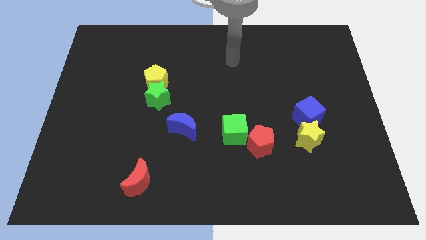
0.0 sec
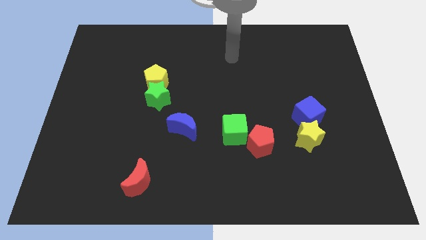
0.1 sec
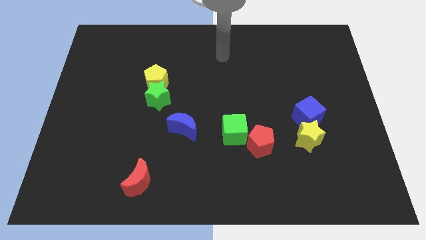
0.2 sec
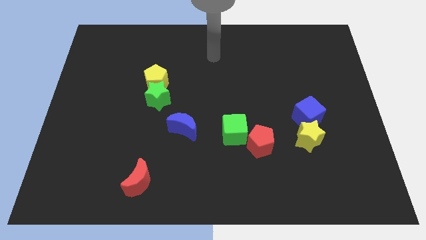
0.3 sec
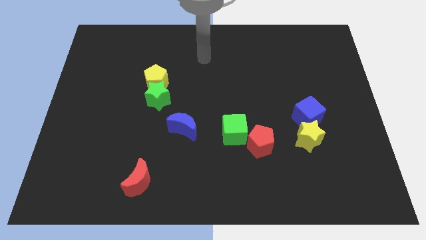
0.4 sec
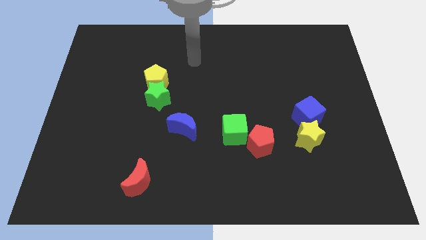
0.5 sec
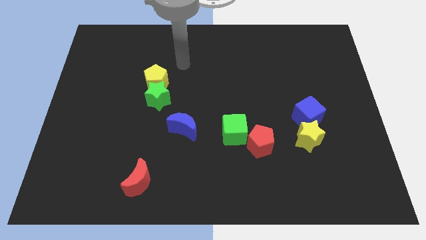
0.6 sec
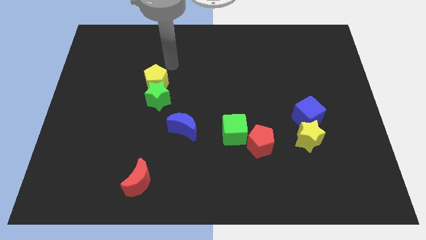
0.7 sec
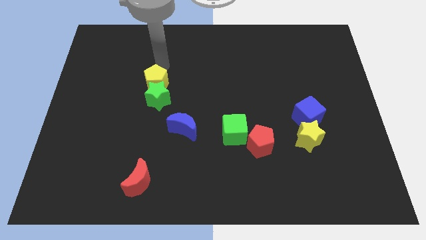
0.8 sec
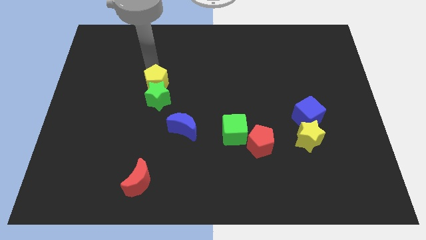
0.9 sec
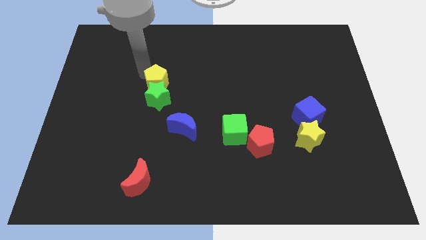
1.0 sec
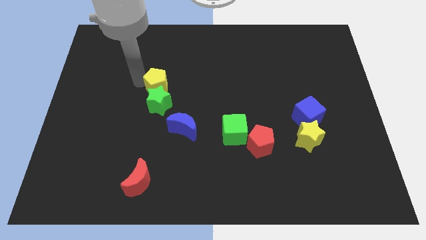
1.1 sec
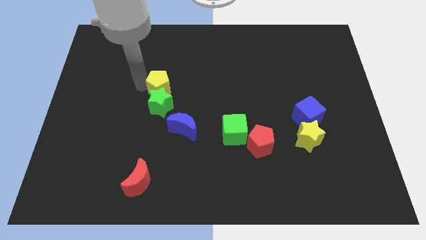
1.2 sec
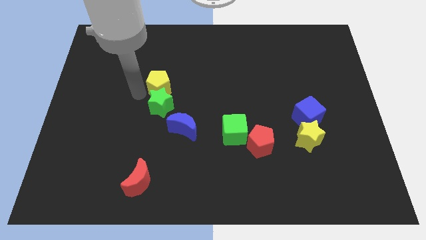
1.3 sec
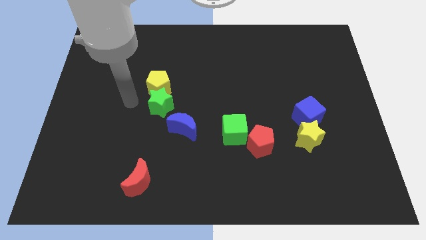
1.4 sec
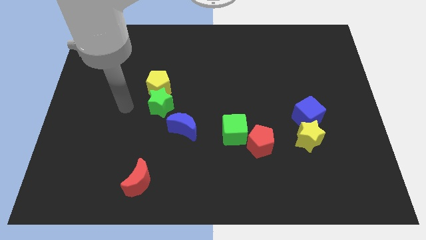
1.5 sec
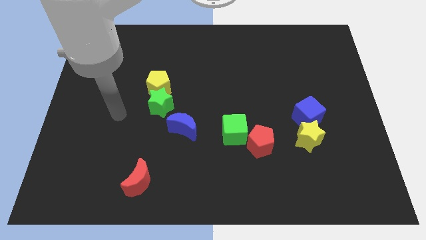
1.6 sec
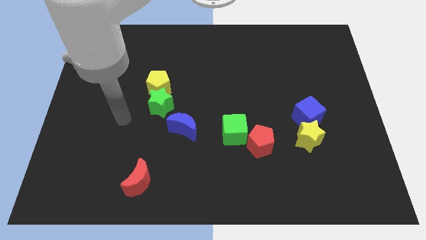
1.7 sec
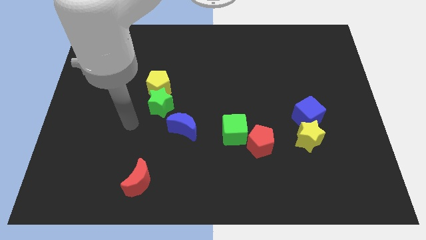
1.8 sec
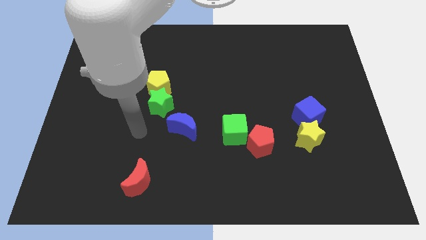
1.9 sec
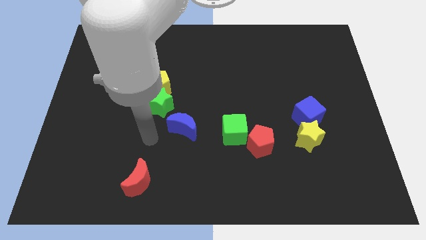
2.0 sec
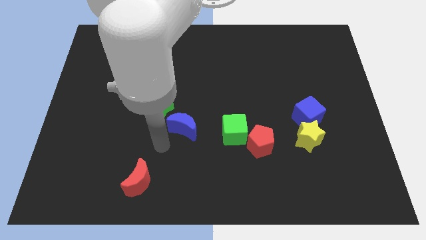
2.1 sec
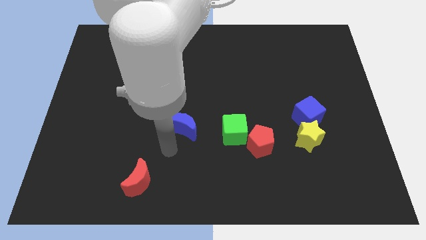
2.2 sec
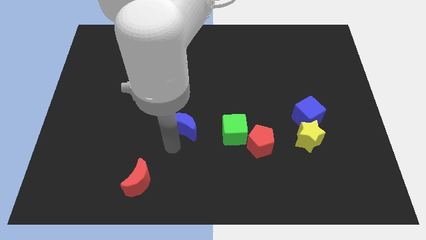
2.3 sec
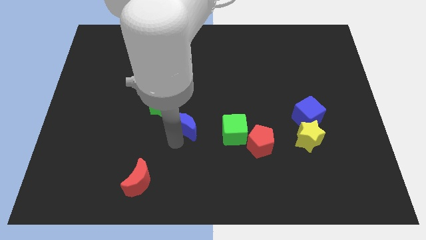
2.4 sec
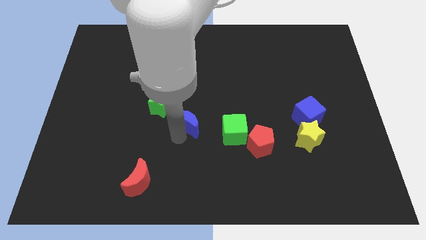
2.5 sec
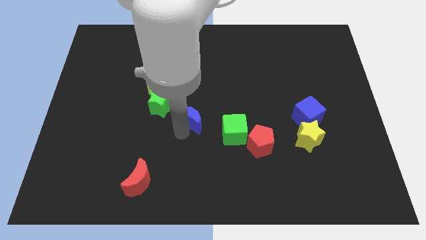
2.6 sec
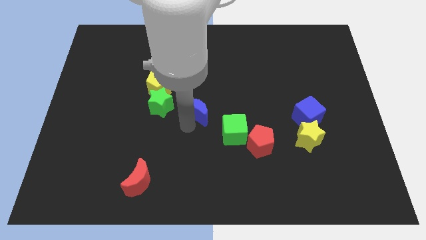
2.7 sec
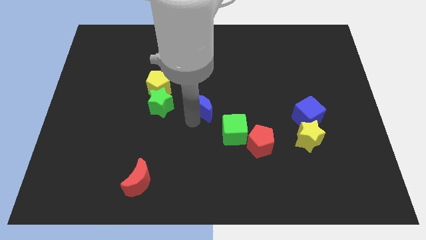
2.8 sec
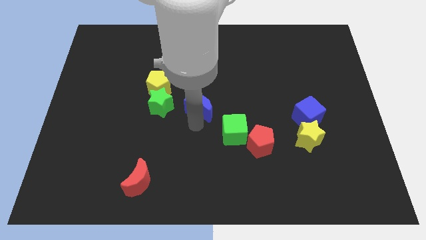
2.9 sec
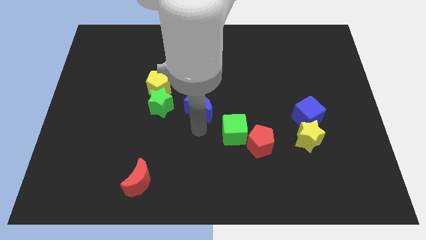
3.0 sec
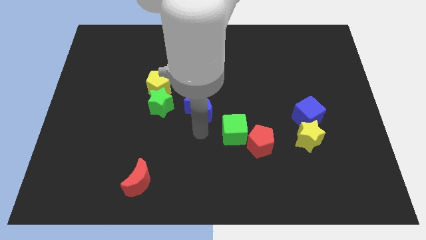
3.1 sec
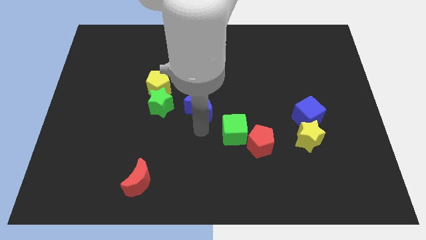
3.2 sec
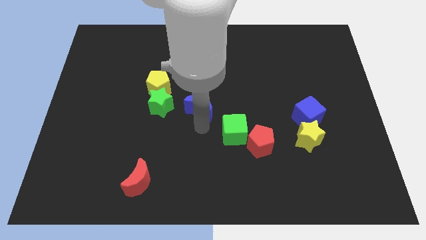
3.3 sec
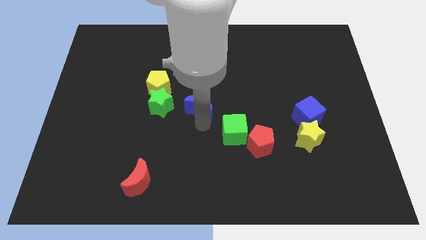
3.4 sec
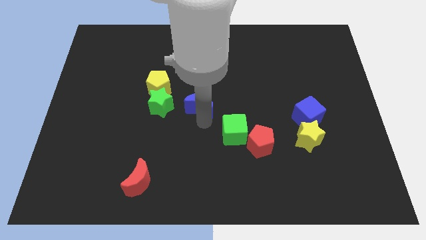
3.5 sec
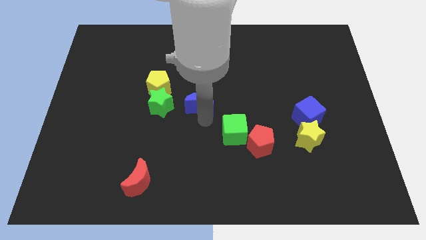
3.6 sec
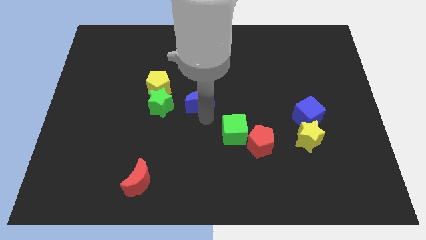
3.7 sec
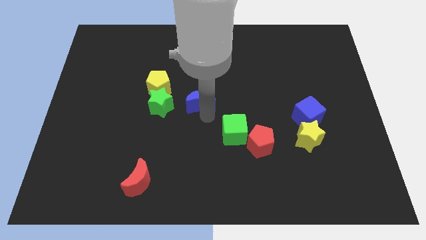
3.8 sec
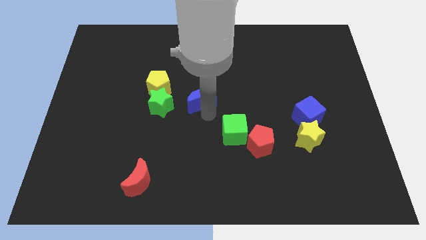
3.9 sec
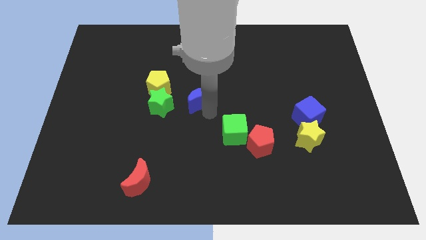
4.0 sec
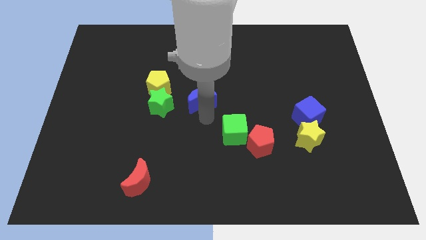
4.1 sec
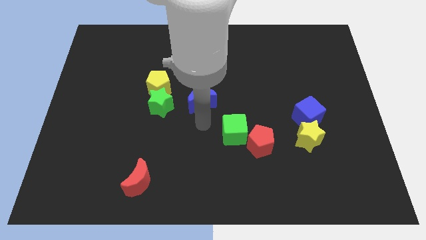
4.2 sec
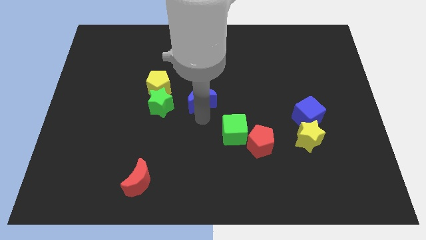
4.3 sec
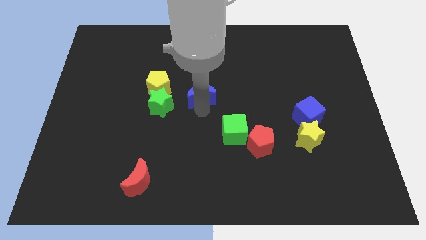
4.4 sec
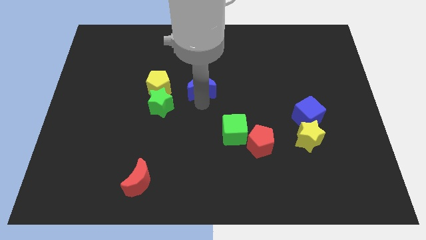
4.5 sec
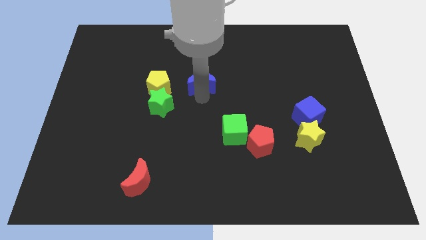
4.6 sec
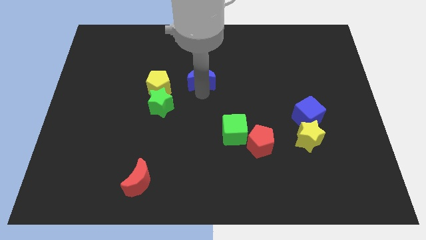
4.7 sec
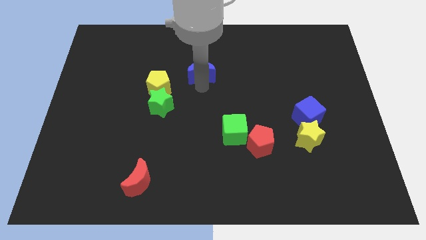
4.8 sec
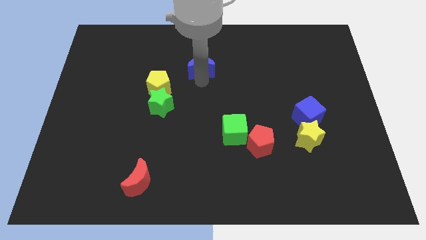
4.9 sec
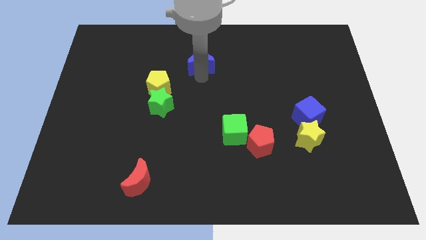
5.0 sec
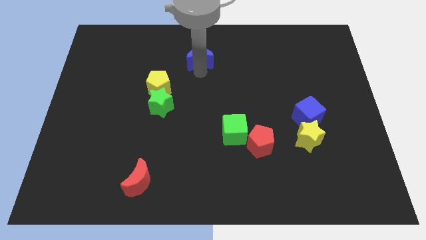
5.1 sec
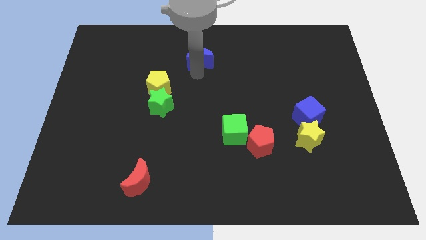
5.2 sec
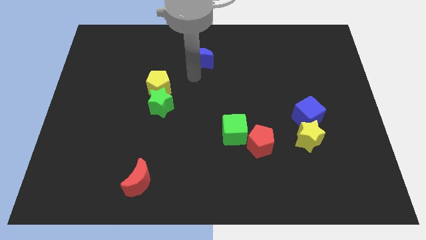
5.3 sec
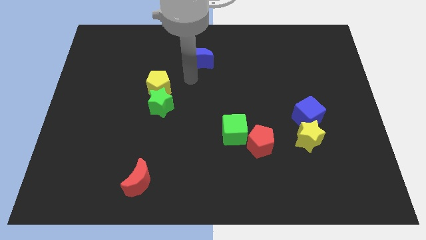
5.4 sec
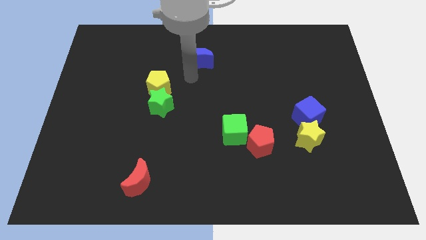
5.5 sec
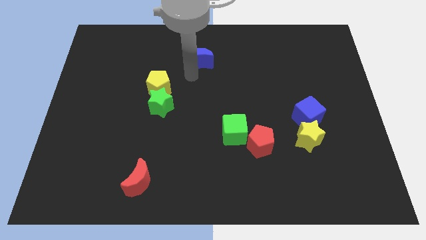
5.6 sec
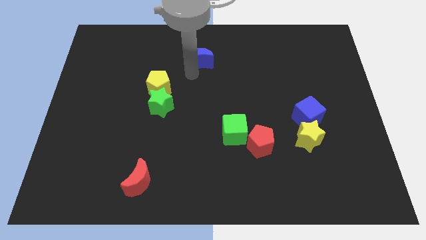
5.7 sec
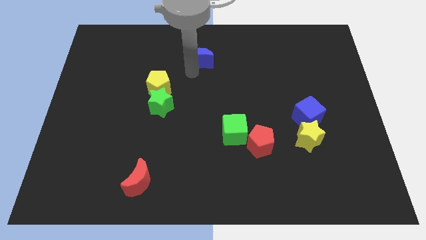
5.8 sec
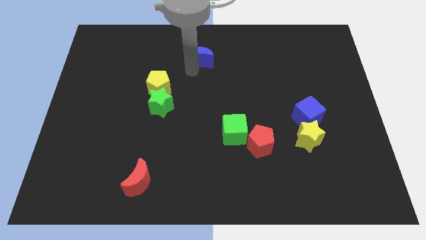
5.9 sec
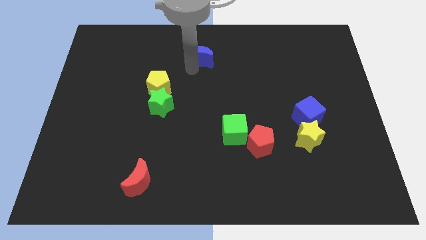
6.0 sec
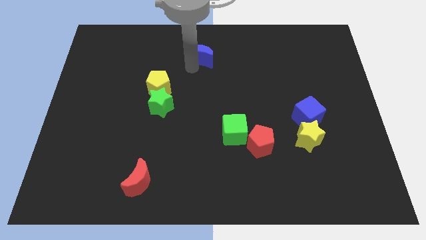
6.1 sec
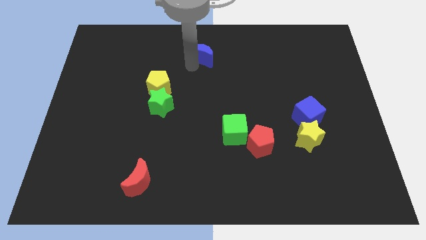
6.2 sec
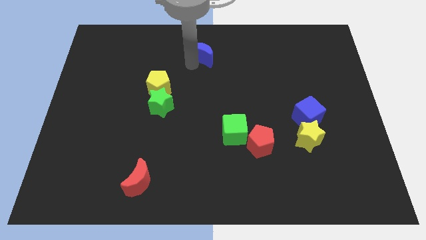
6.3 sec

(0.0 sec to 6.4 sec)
push the blue moon to the towards your base

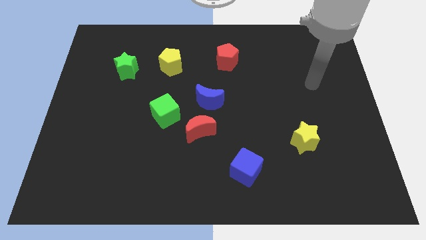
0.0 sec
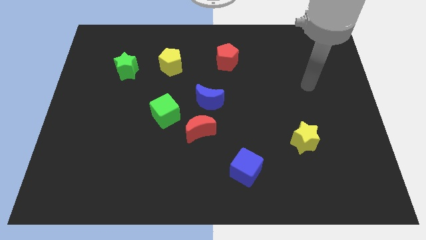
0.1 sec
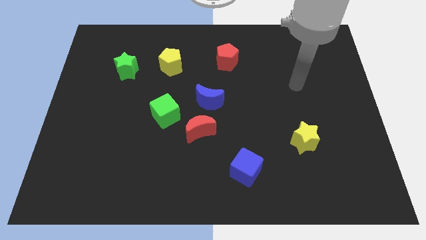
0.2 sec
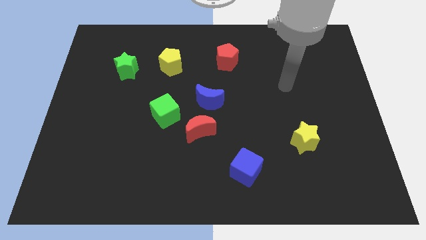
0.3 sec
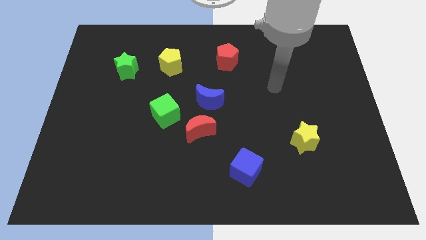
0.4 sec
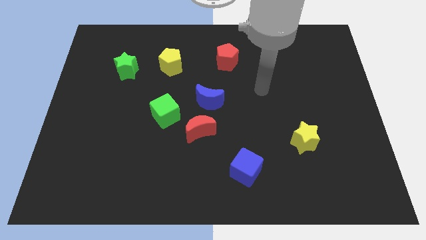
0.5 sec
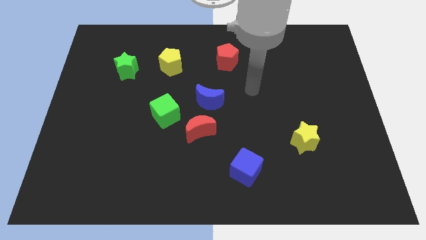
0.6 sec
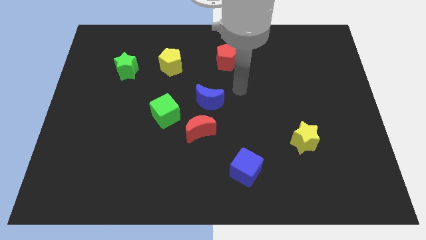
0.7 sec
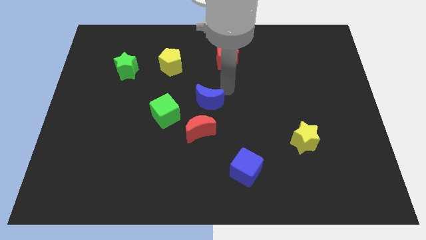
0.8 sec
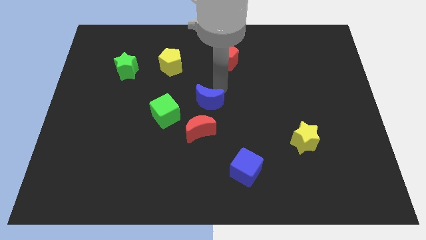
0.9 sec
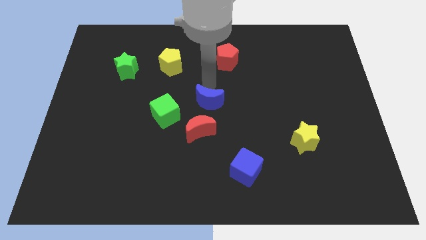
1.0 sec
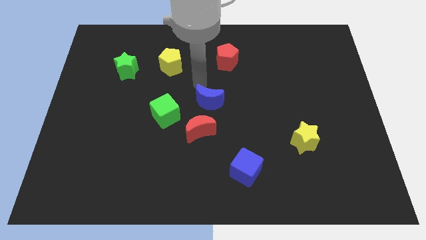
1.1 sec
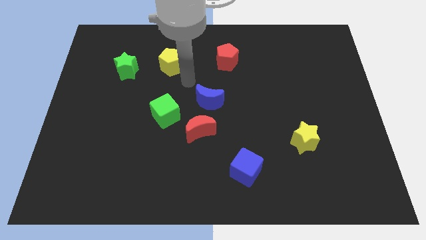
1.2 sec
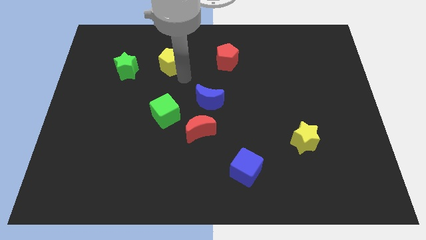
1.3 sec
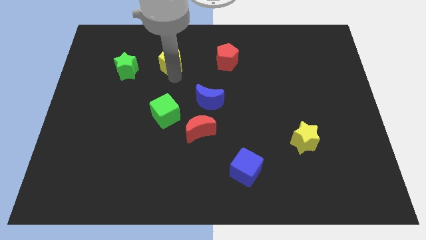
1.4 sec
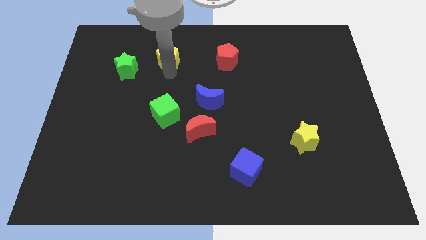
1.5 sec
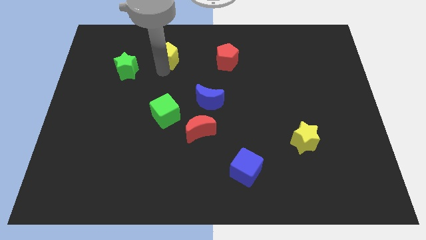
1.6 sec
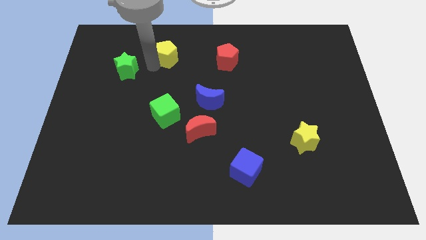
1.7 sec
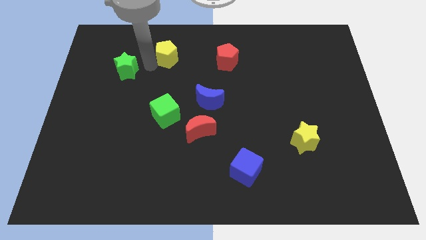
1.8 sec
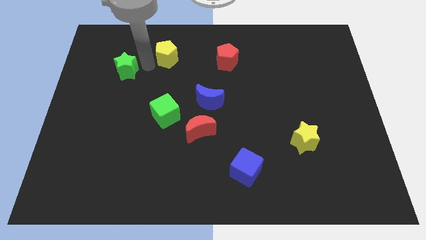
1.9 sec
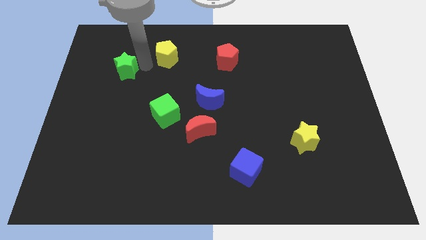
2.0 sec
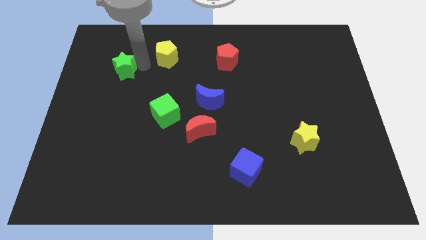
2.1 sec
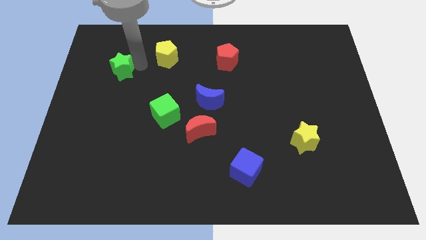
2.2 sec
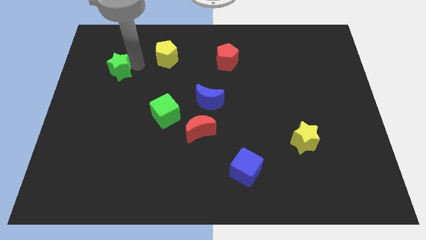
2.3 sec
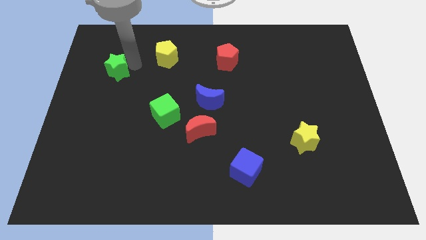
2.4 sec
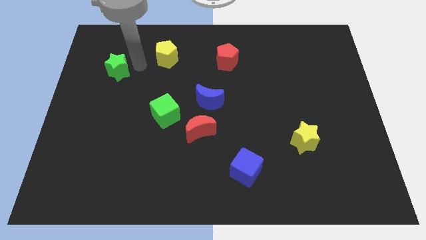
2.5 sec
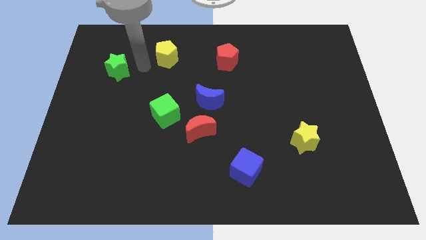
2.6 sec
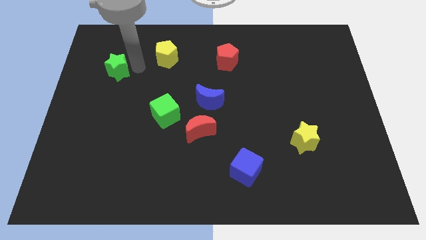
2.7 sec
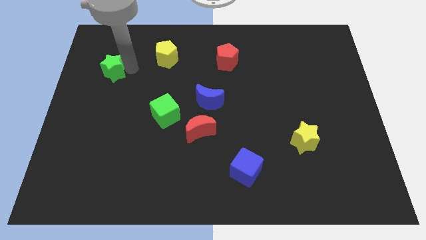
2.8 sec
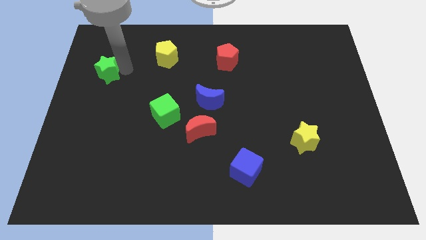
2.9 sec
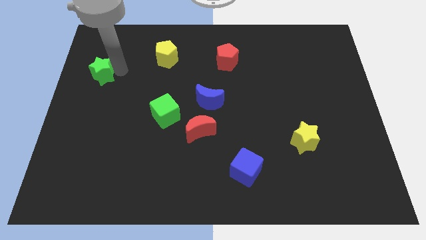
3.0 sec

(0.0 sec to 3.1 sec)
slide the green star to the center left
